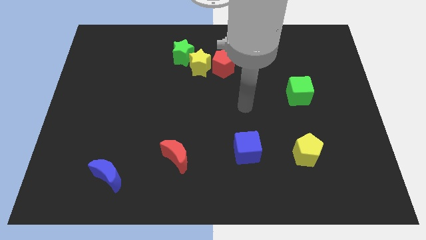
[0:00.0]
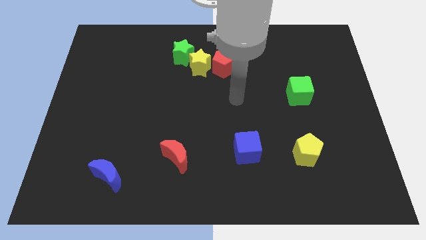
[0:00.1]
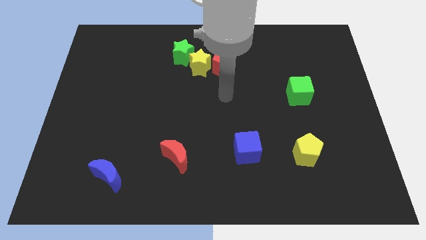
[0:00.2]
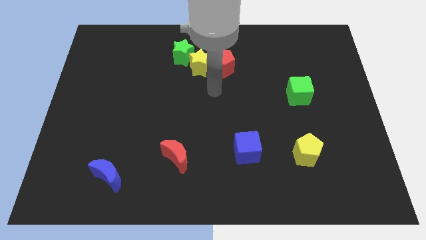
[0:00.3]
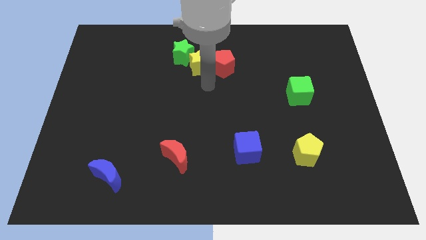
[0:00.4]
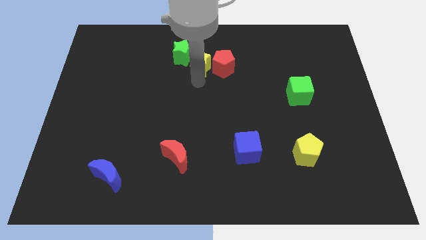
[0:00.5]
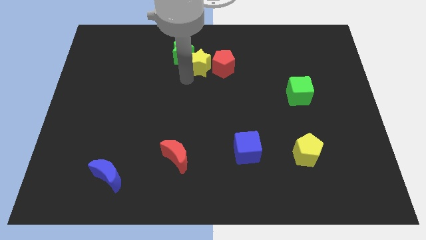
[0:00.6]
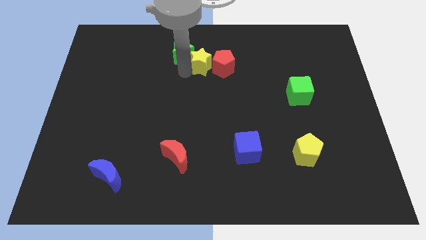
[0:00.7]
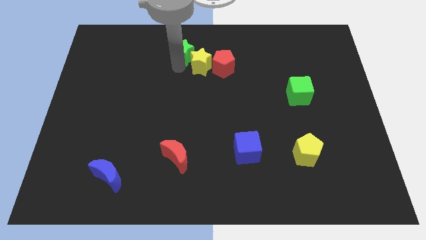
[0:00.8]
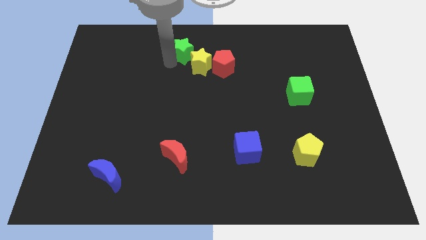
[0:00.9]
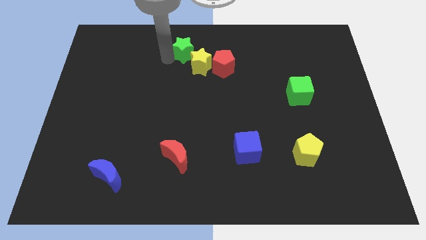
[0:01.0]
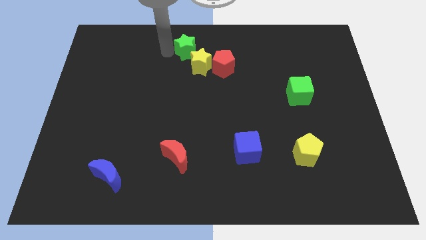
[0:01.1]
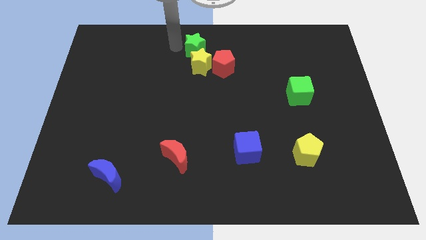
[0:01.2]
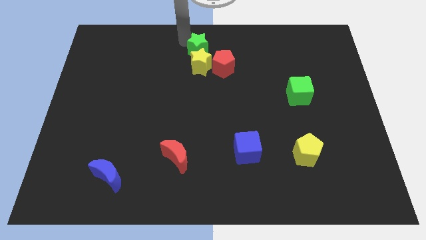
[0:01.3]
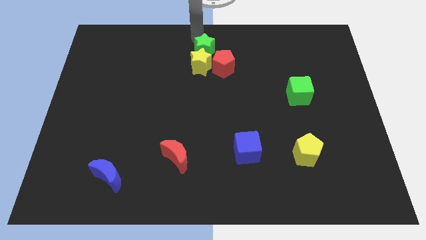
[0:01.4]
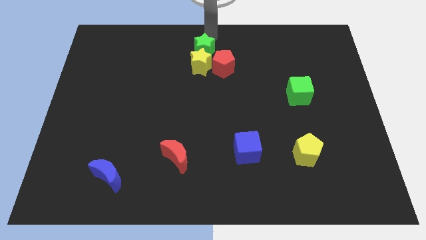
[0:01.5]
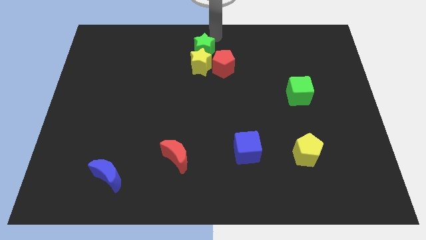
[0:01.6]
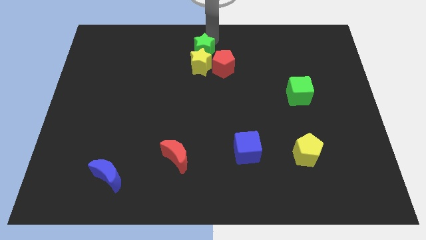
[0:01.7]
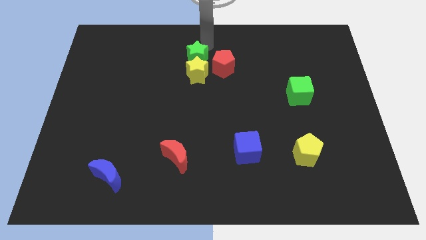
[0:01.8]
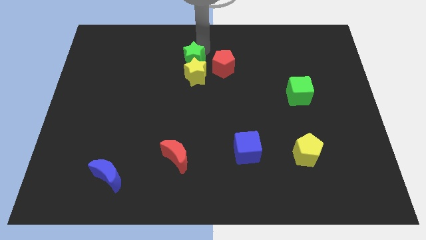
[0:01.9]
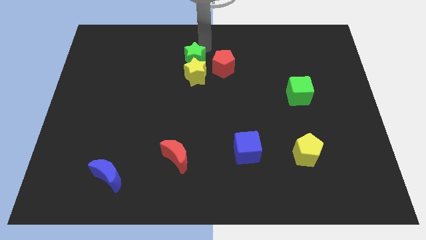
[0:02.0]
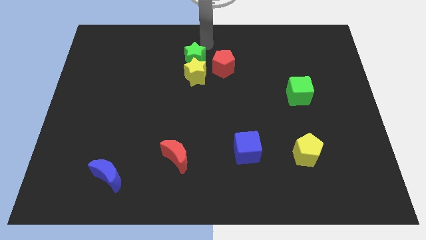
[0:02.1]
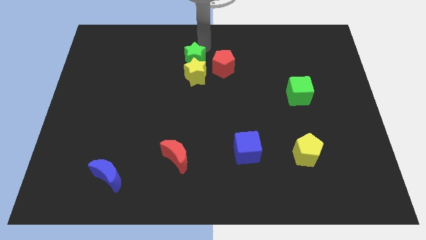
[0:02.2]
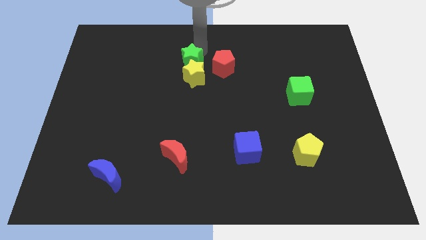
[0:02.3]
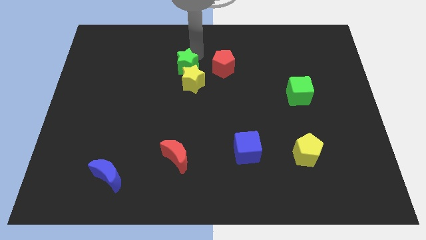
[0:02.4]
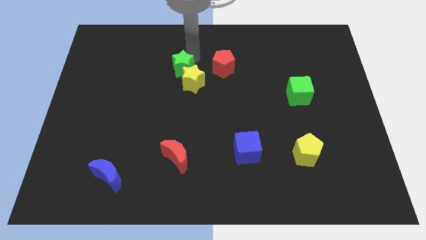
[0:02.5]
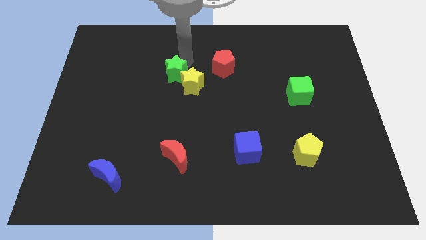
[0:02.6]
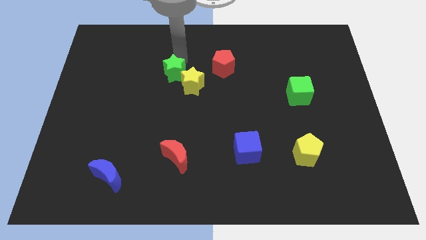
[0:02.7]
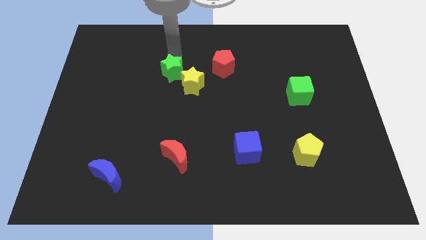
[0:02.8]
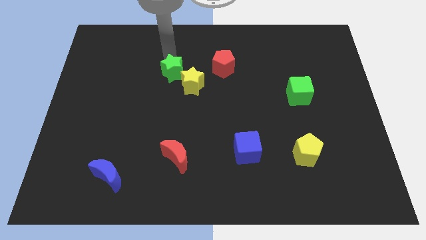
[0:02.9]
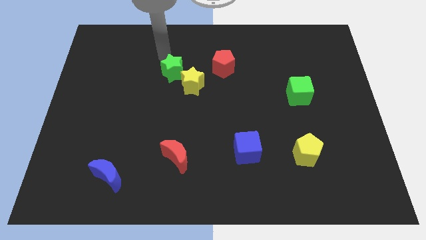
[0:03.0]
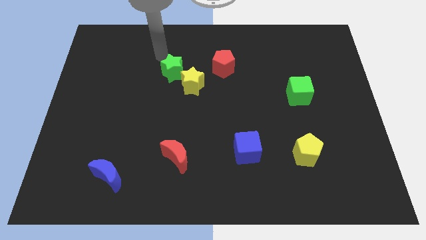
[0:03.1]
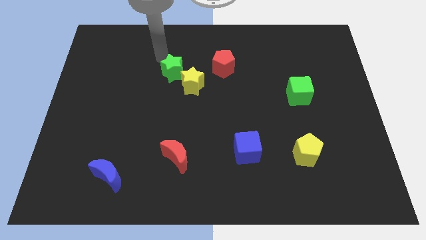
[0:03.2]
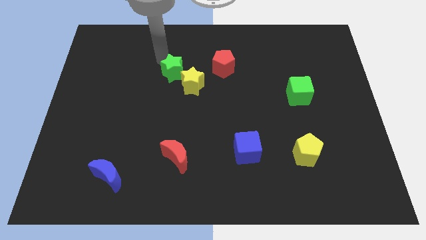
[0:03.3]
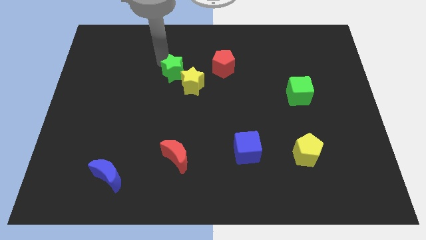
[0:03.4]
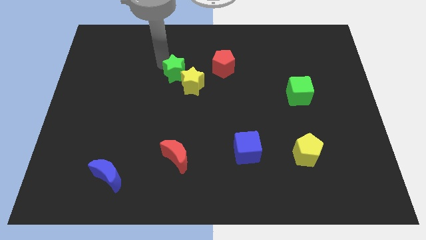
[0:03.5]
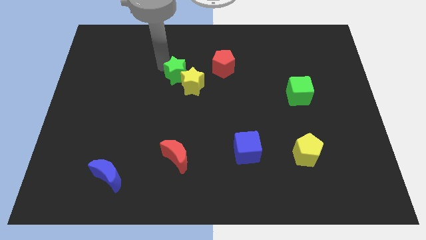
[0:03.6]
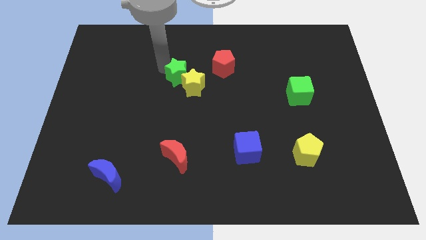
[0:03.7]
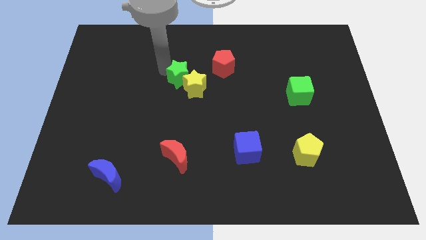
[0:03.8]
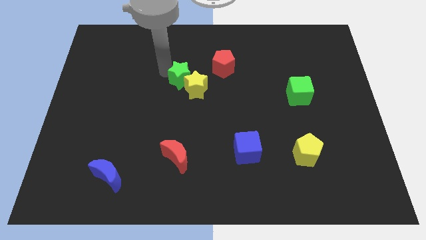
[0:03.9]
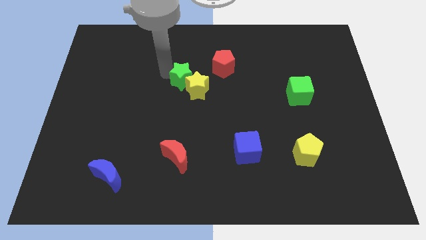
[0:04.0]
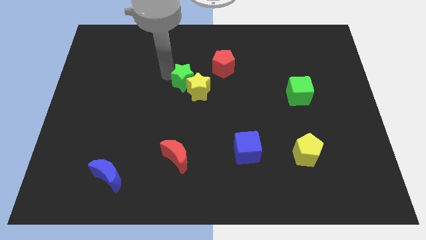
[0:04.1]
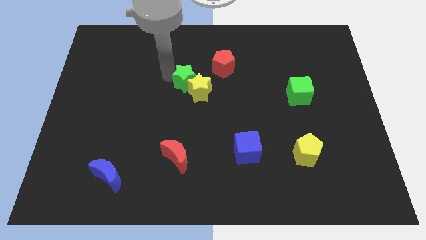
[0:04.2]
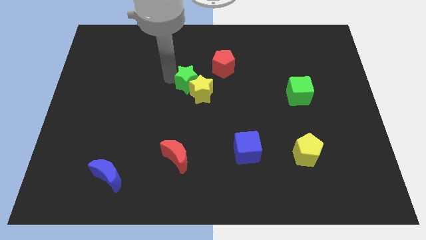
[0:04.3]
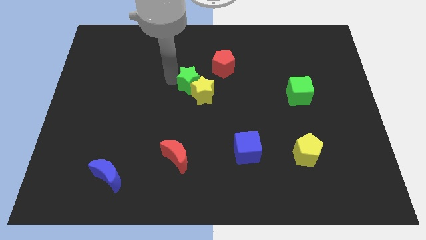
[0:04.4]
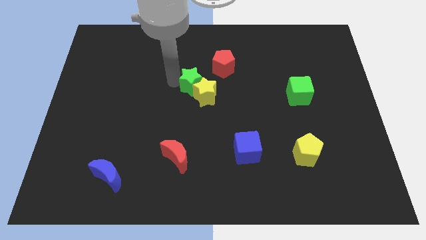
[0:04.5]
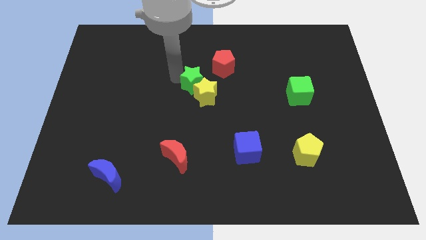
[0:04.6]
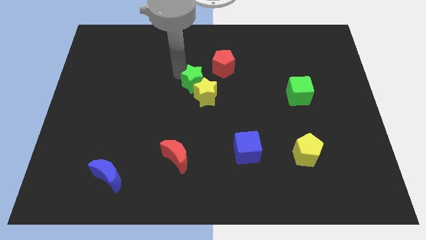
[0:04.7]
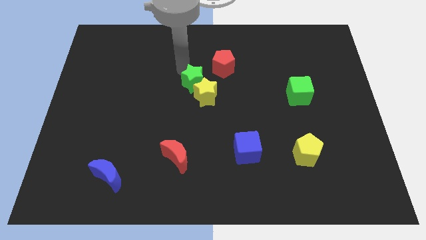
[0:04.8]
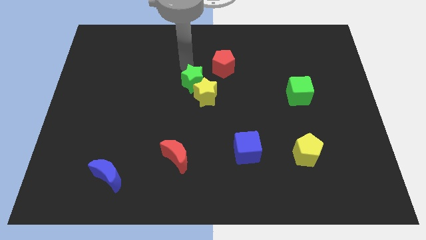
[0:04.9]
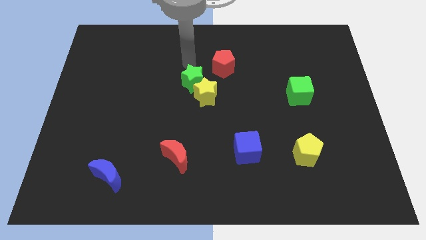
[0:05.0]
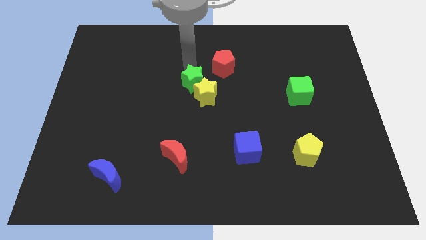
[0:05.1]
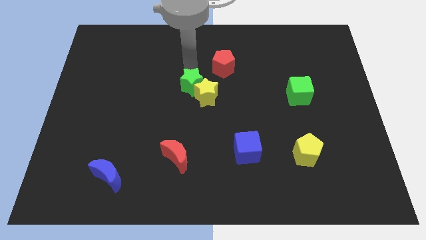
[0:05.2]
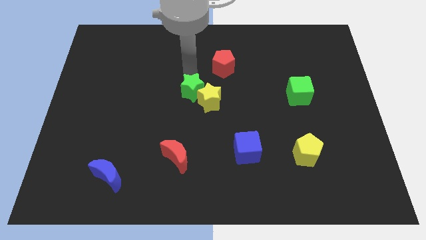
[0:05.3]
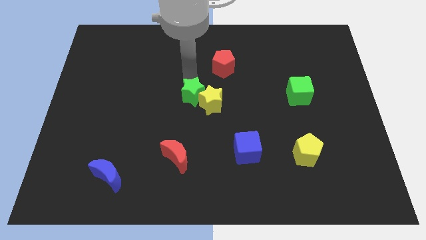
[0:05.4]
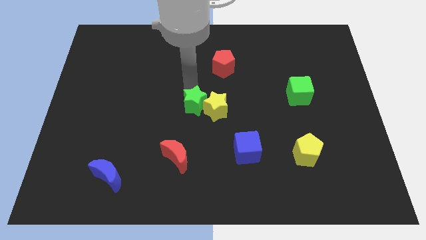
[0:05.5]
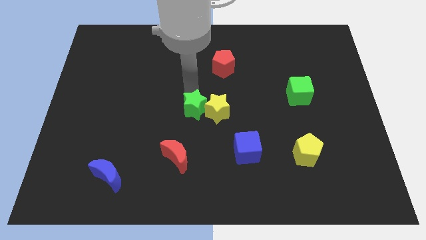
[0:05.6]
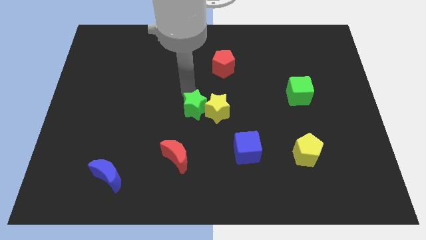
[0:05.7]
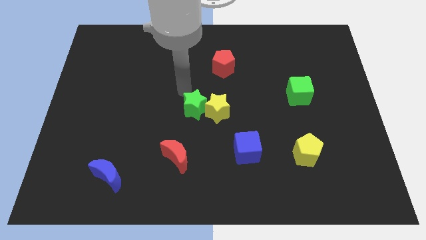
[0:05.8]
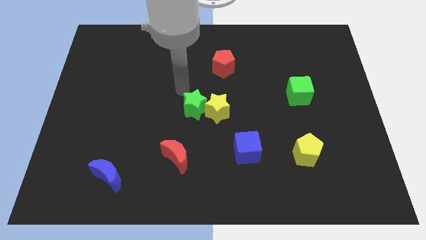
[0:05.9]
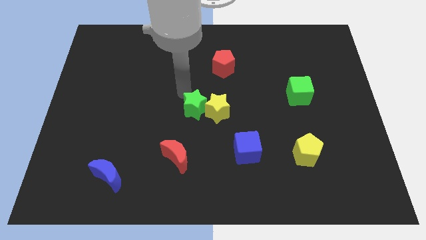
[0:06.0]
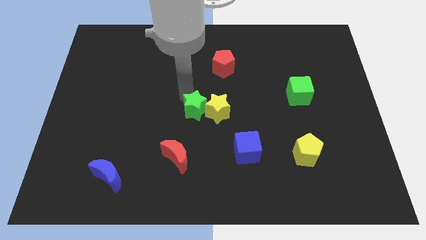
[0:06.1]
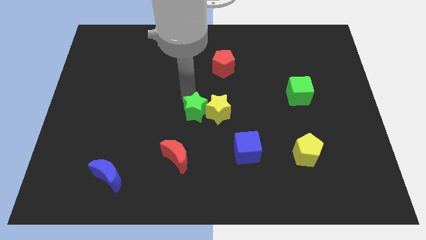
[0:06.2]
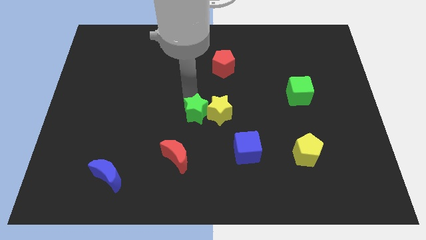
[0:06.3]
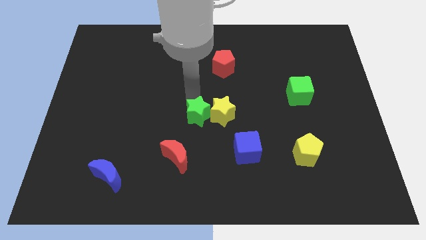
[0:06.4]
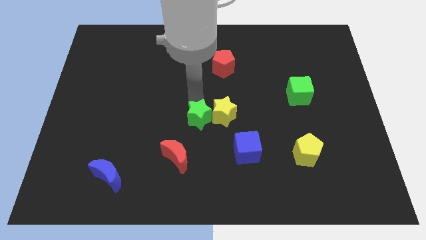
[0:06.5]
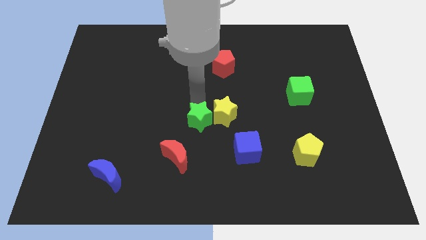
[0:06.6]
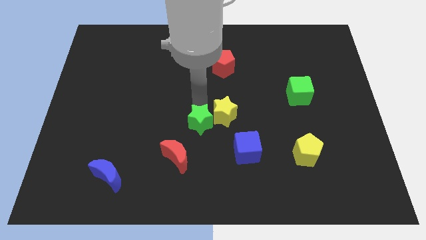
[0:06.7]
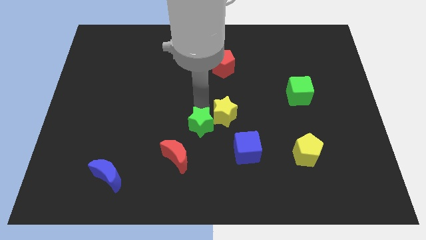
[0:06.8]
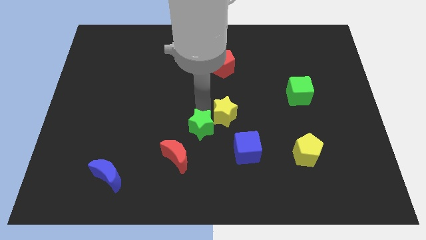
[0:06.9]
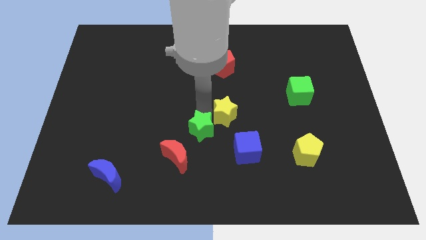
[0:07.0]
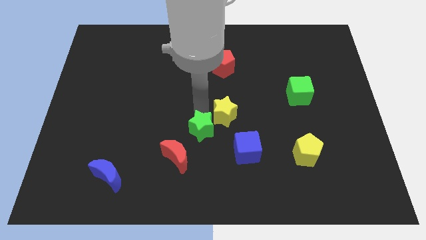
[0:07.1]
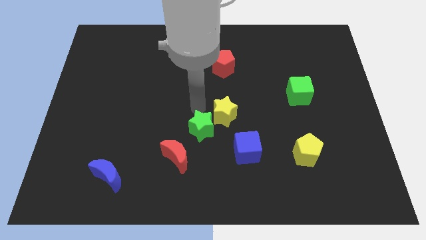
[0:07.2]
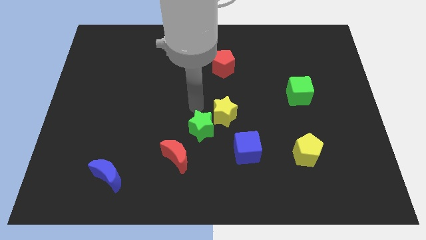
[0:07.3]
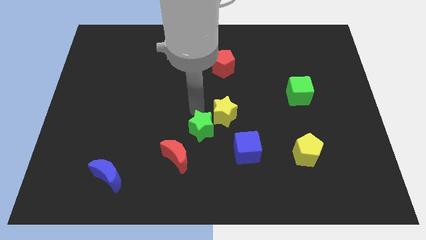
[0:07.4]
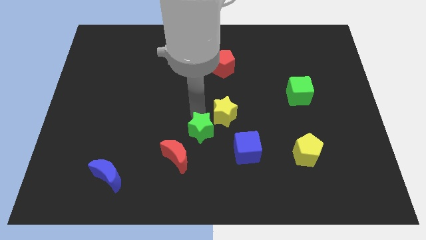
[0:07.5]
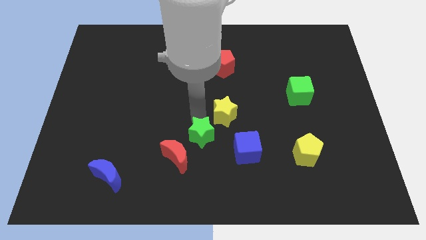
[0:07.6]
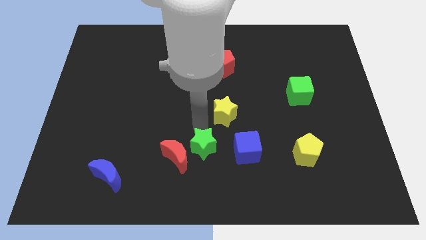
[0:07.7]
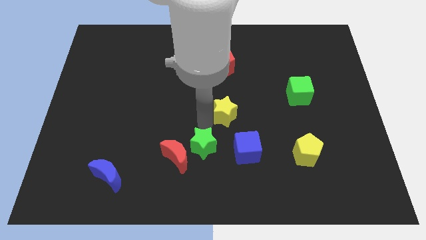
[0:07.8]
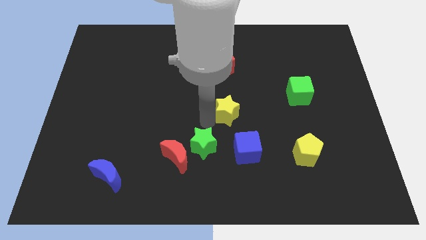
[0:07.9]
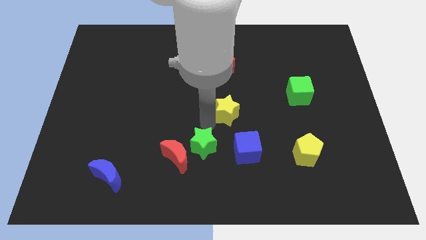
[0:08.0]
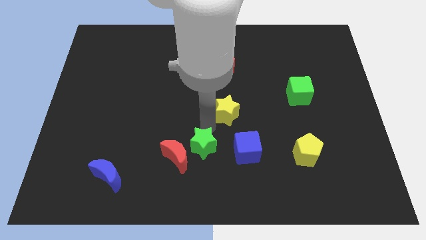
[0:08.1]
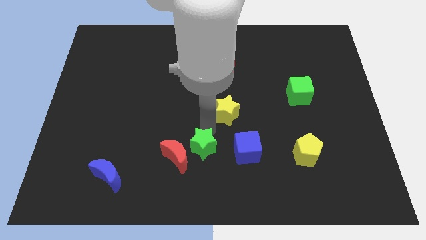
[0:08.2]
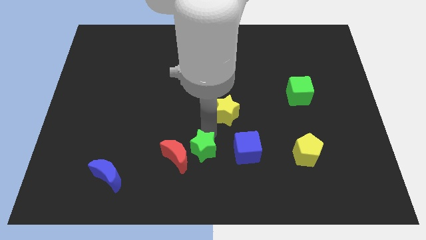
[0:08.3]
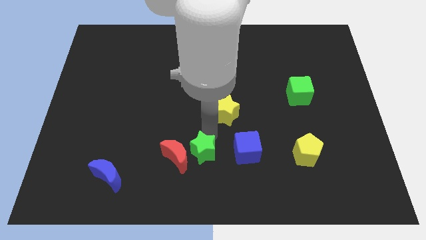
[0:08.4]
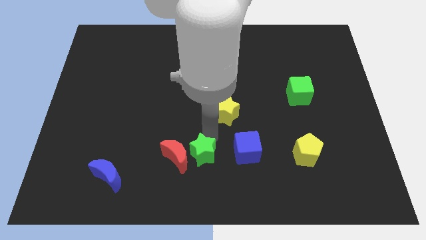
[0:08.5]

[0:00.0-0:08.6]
move the green star to the bottom side
